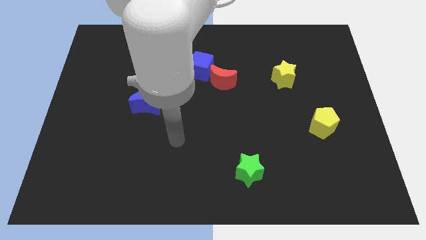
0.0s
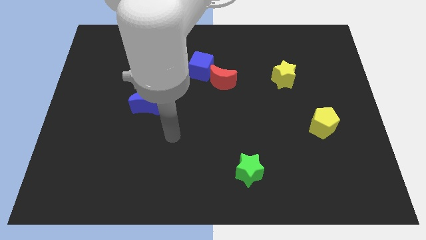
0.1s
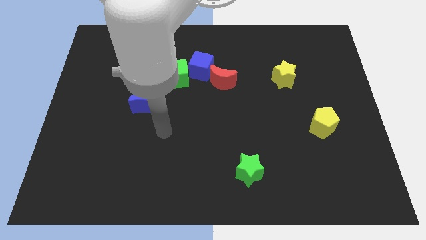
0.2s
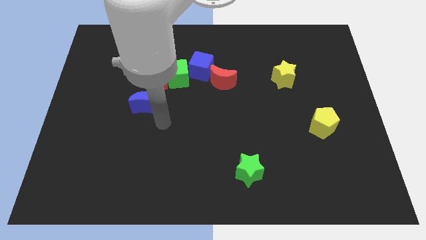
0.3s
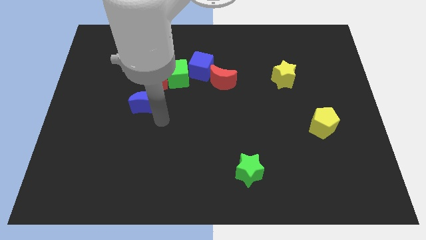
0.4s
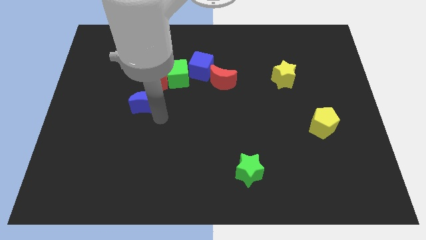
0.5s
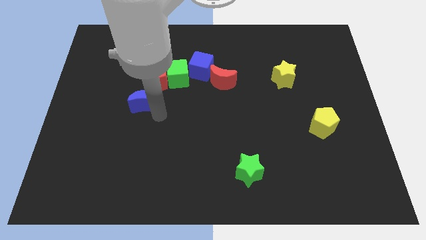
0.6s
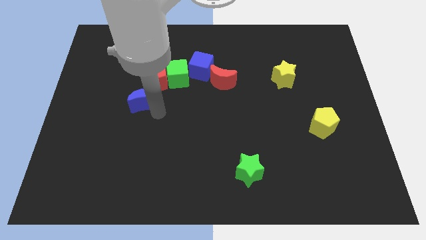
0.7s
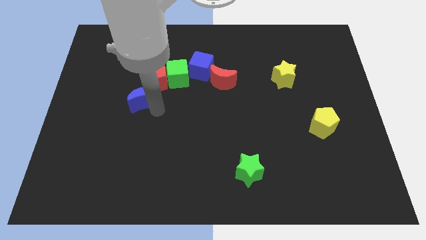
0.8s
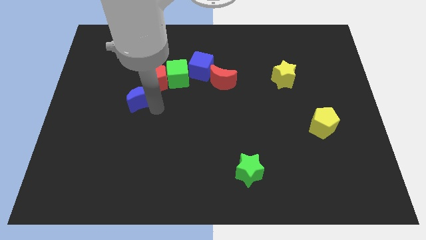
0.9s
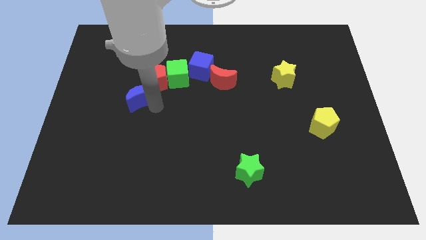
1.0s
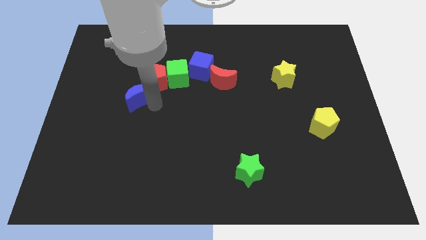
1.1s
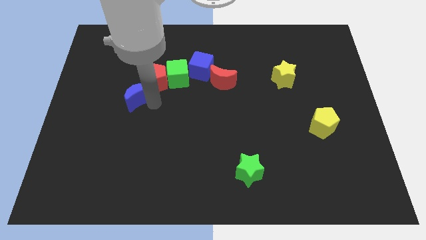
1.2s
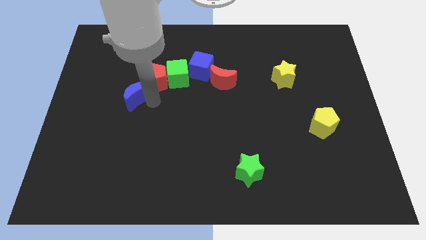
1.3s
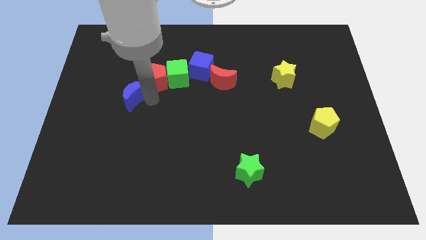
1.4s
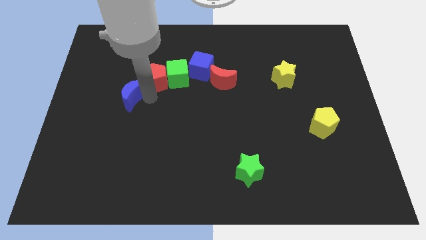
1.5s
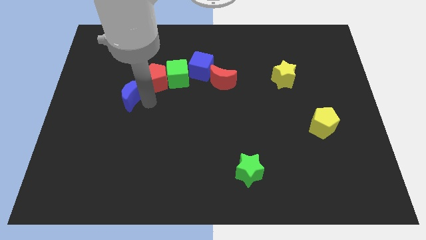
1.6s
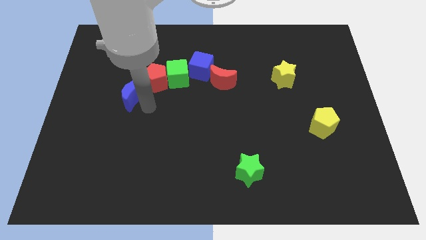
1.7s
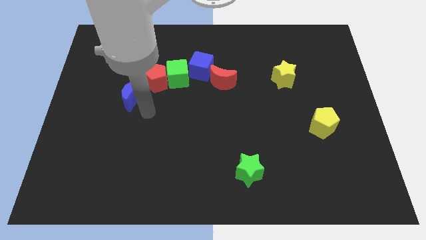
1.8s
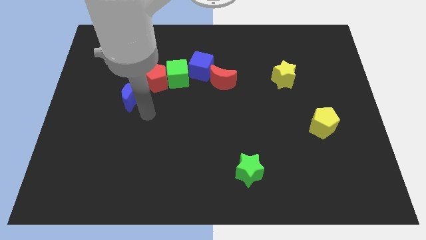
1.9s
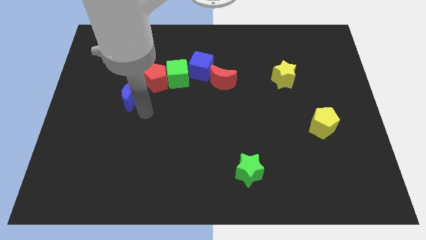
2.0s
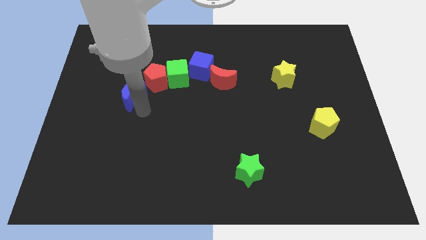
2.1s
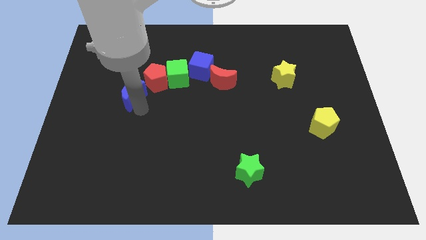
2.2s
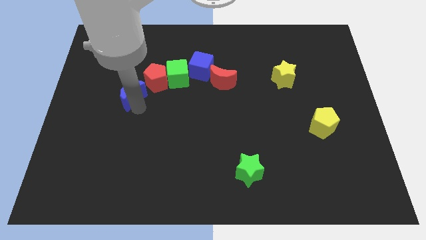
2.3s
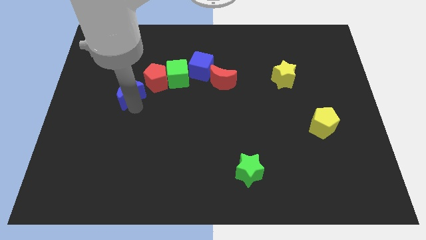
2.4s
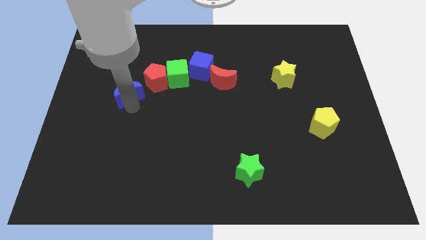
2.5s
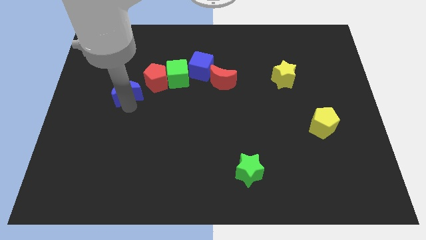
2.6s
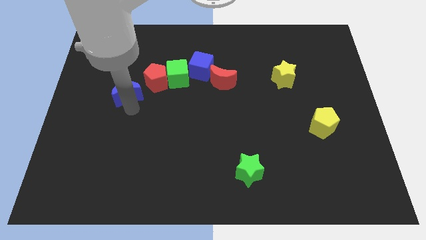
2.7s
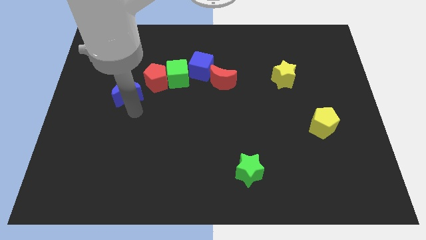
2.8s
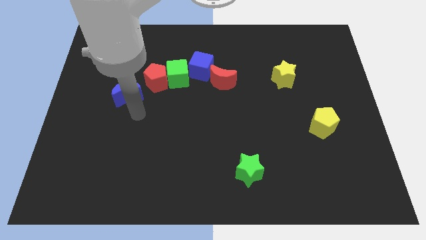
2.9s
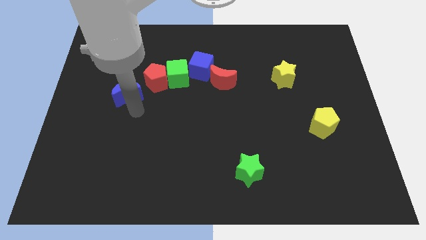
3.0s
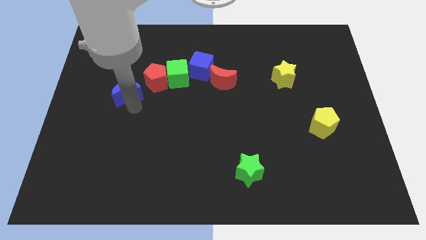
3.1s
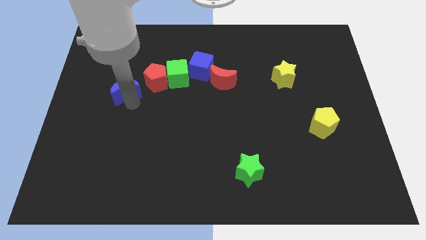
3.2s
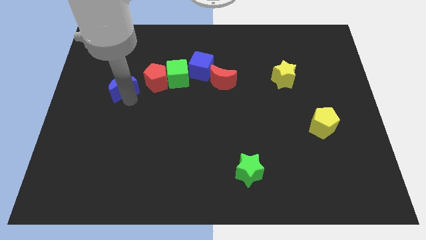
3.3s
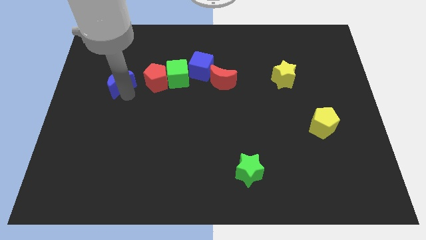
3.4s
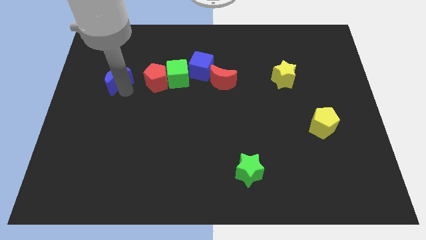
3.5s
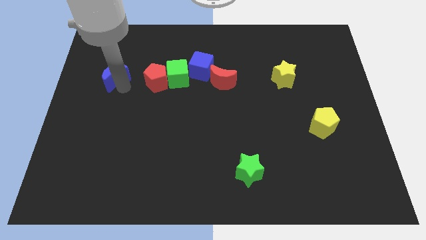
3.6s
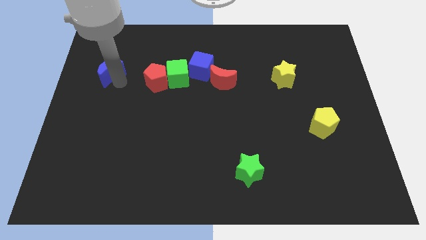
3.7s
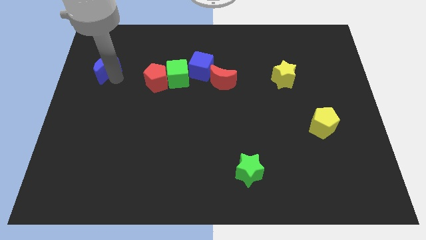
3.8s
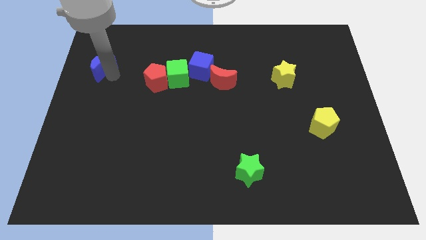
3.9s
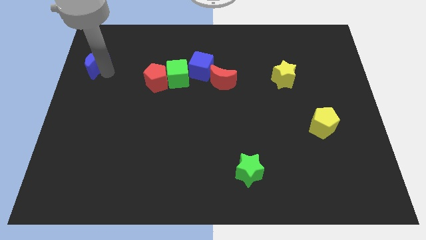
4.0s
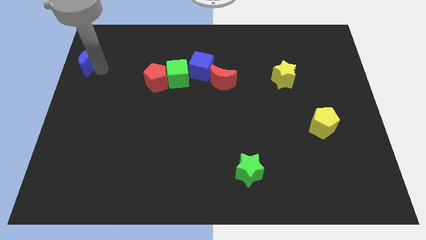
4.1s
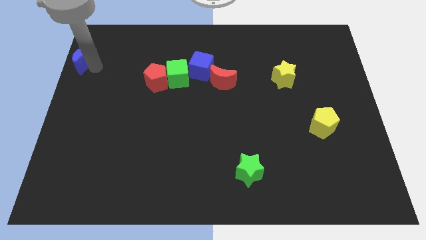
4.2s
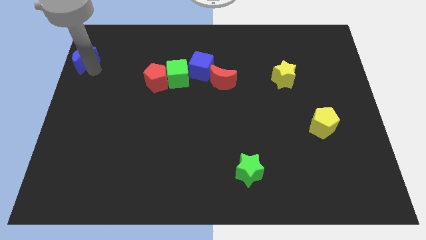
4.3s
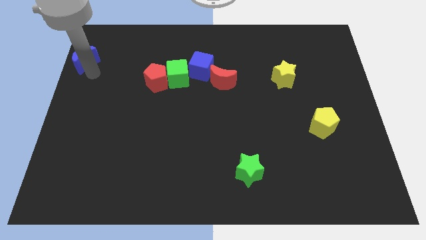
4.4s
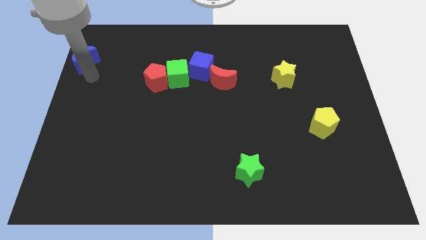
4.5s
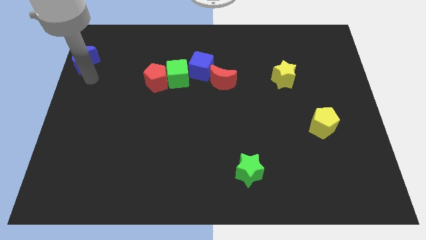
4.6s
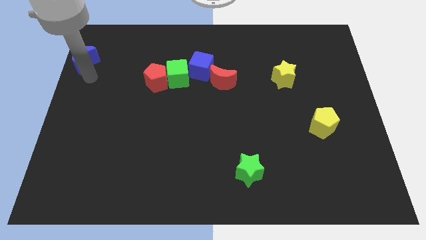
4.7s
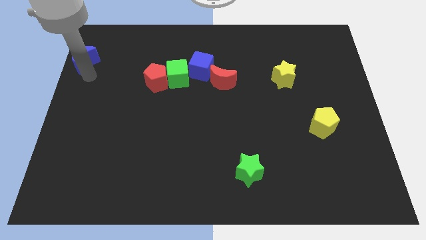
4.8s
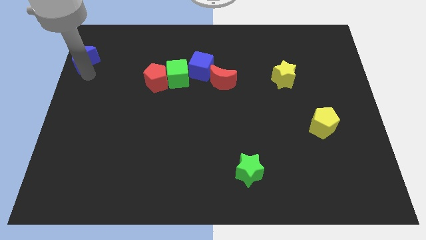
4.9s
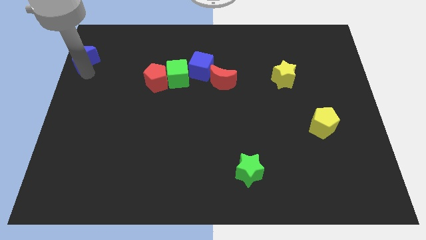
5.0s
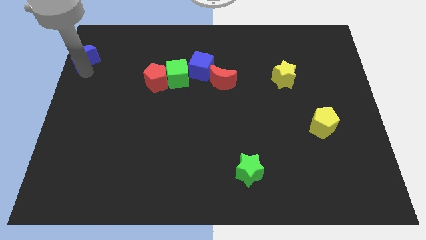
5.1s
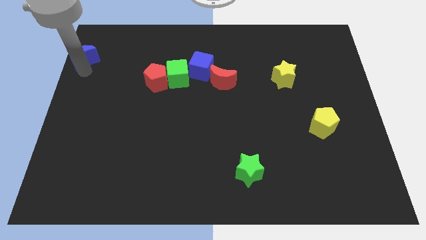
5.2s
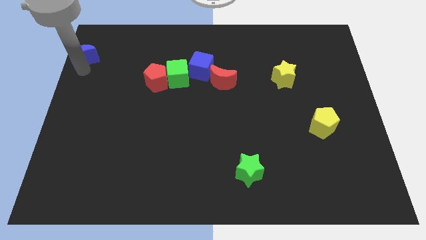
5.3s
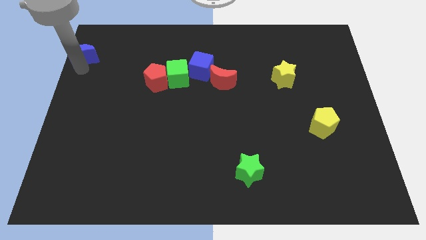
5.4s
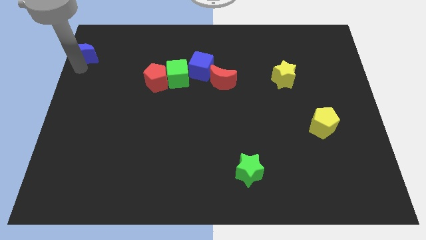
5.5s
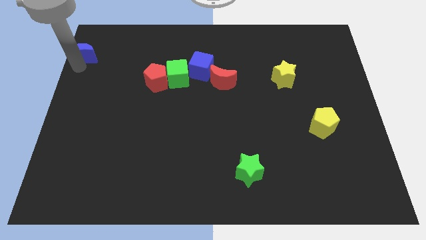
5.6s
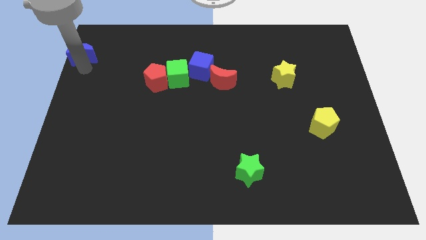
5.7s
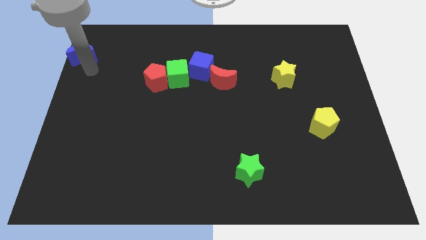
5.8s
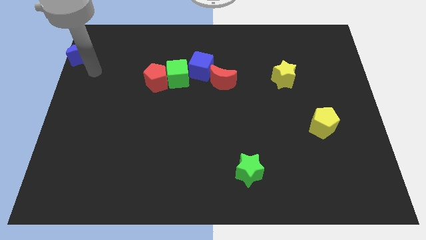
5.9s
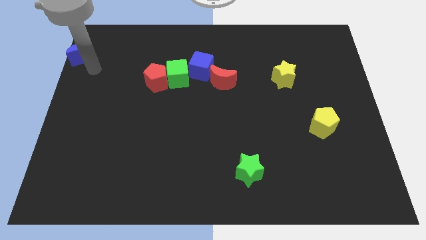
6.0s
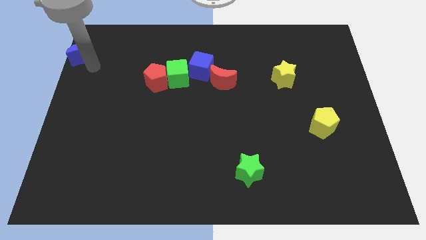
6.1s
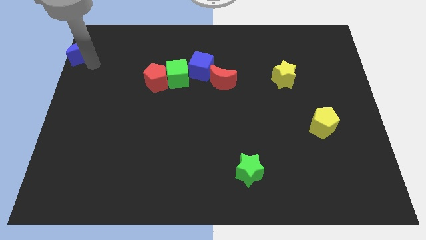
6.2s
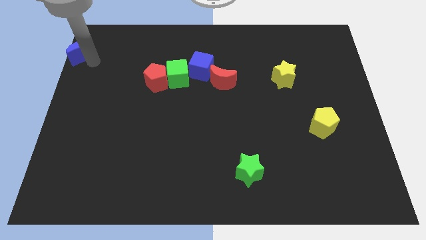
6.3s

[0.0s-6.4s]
move the blue moon to the top left
